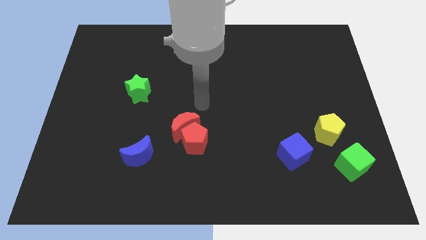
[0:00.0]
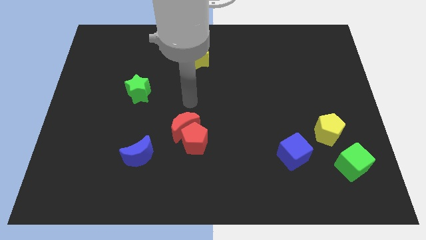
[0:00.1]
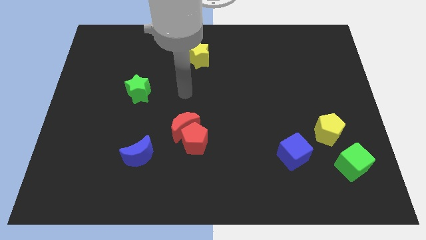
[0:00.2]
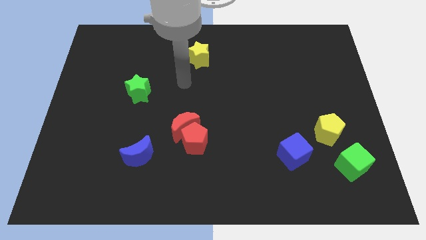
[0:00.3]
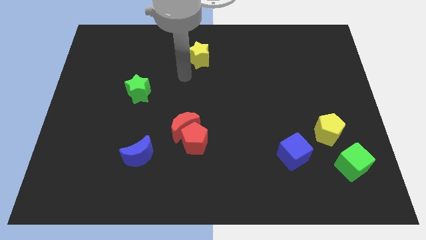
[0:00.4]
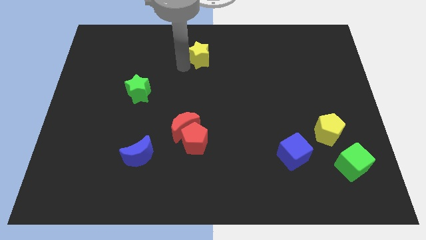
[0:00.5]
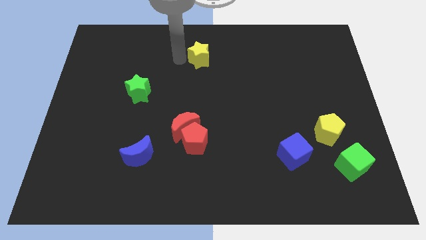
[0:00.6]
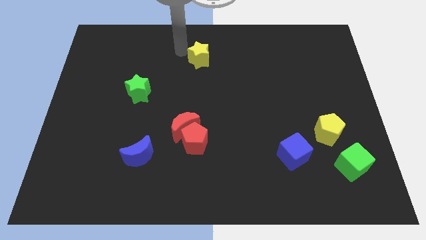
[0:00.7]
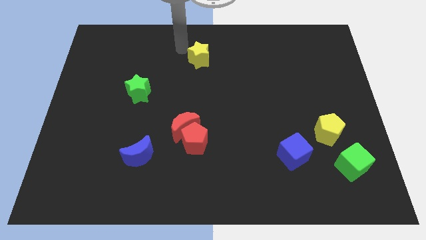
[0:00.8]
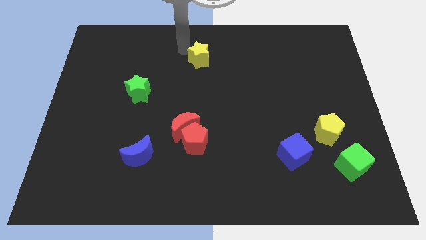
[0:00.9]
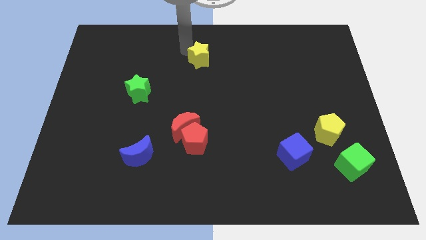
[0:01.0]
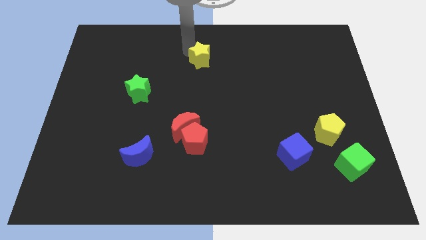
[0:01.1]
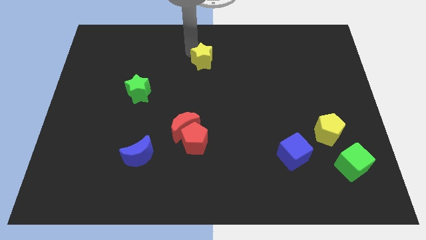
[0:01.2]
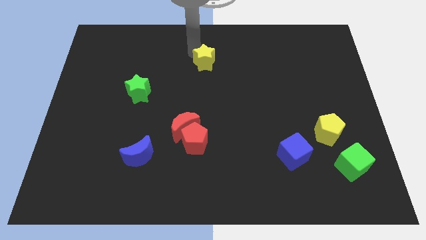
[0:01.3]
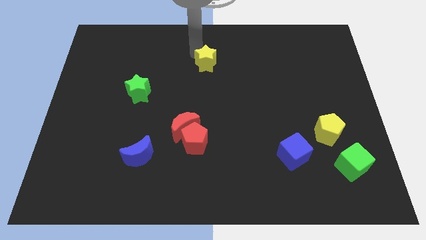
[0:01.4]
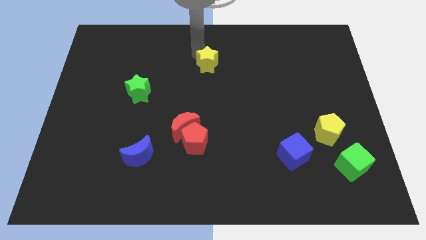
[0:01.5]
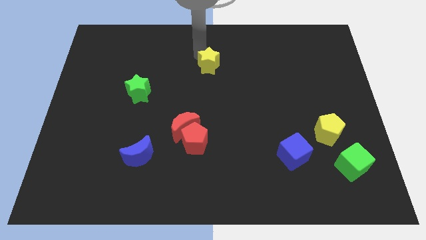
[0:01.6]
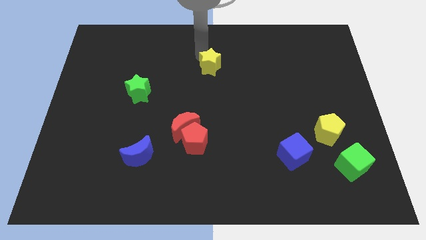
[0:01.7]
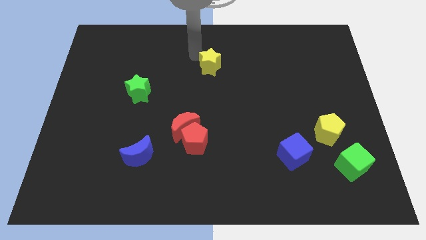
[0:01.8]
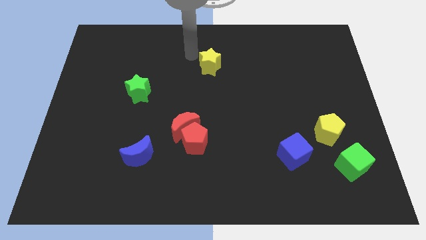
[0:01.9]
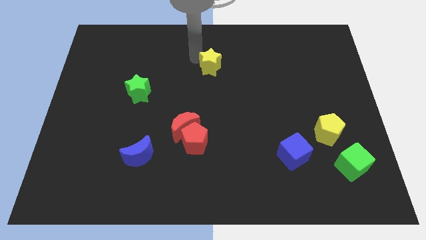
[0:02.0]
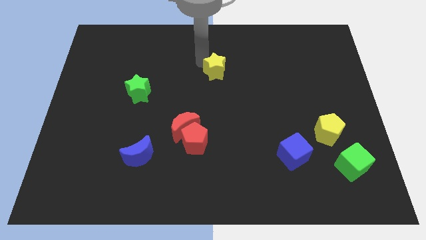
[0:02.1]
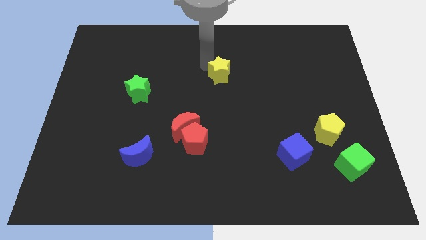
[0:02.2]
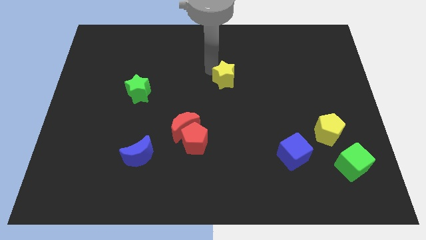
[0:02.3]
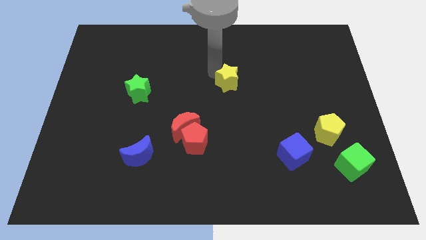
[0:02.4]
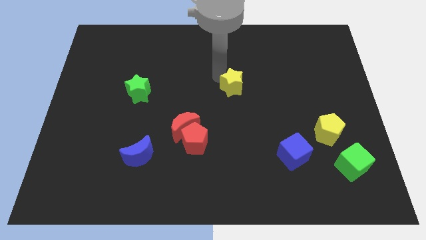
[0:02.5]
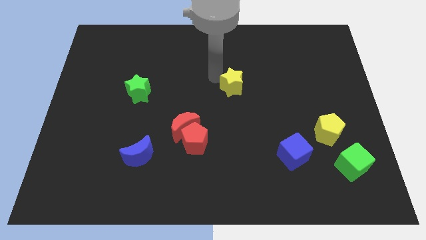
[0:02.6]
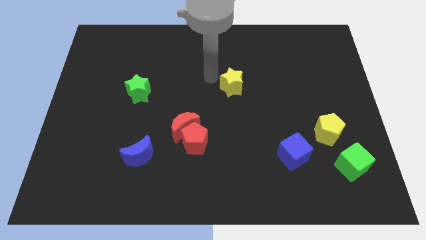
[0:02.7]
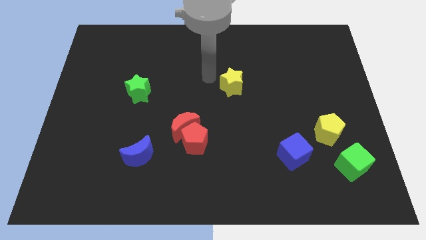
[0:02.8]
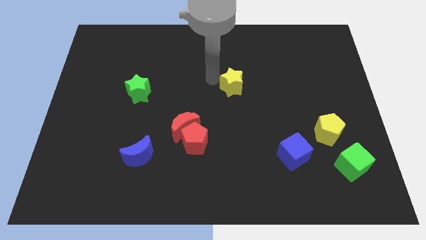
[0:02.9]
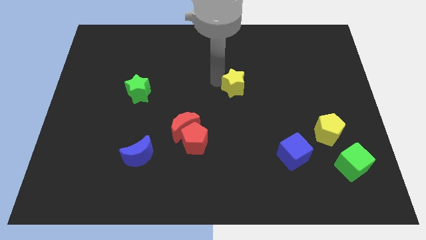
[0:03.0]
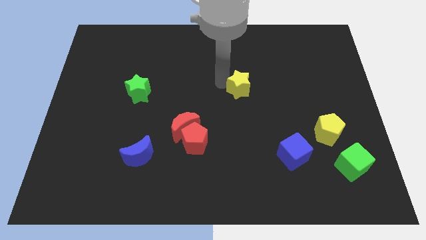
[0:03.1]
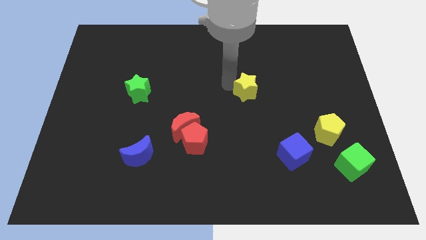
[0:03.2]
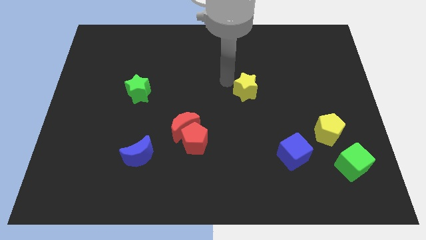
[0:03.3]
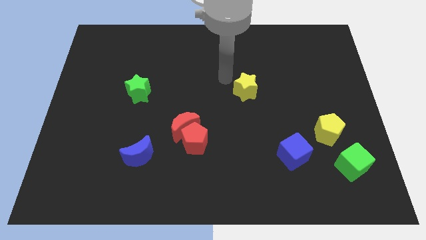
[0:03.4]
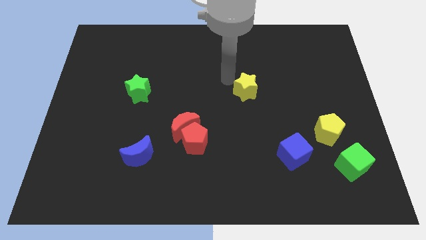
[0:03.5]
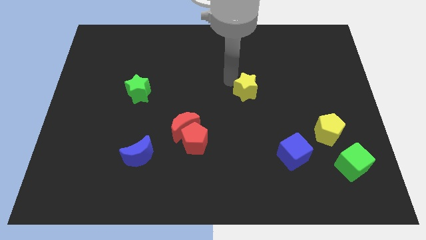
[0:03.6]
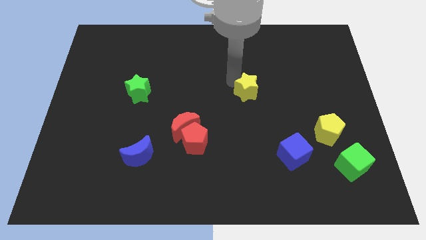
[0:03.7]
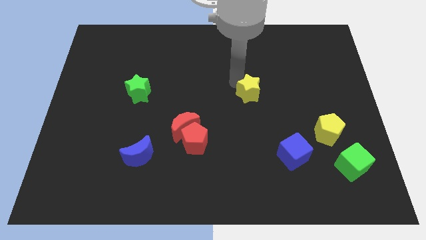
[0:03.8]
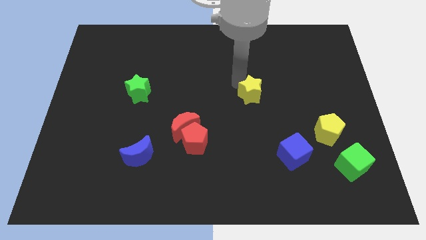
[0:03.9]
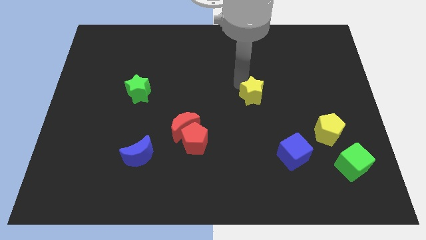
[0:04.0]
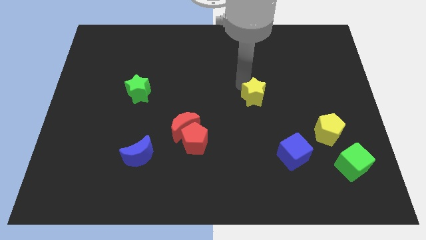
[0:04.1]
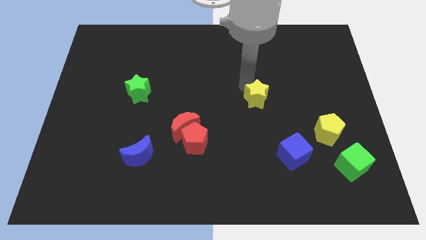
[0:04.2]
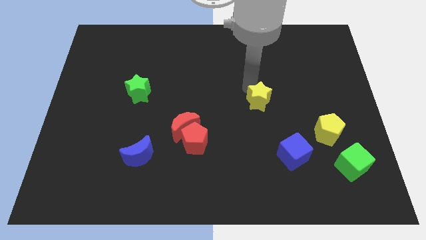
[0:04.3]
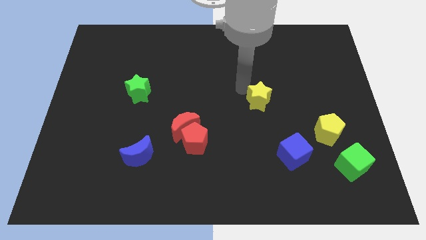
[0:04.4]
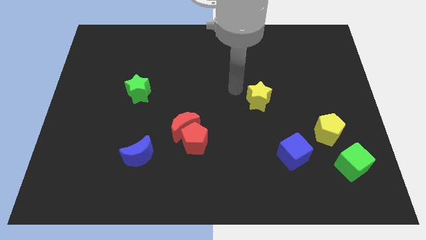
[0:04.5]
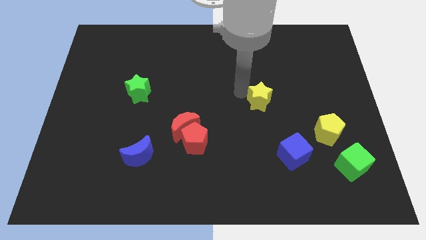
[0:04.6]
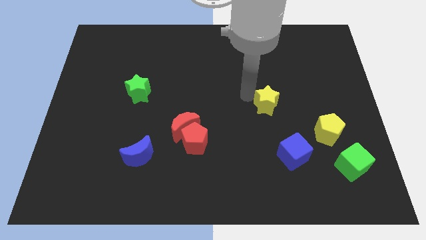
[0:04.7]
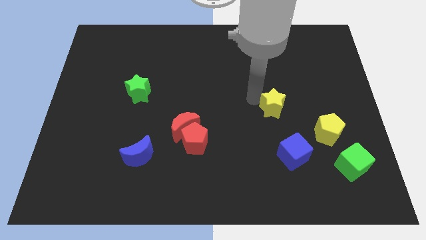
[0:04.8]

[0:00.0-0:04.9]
move the yellow star to the top side of the blue cube

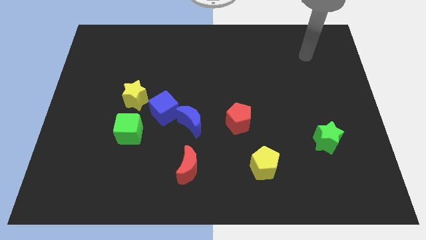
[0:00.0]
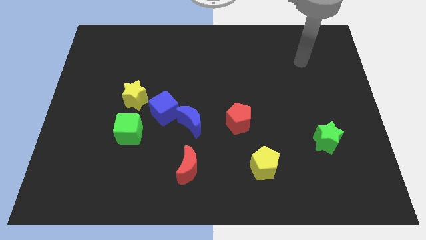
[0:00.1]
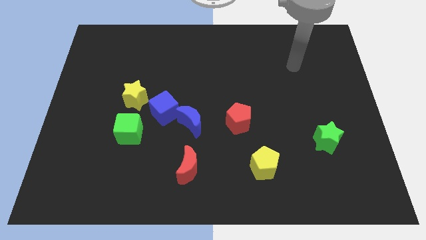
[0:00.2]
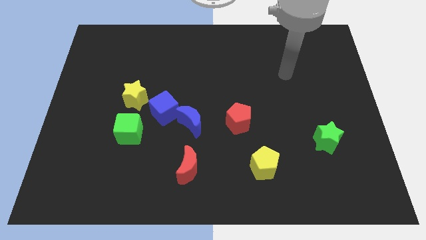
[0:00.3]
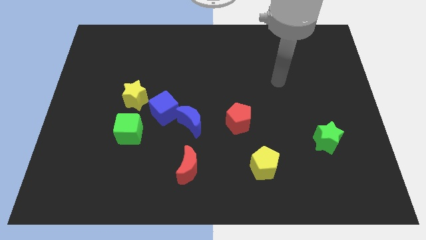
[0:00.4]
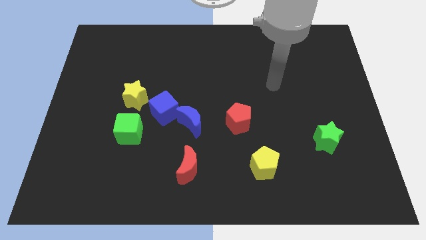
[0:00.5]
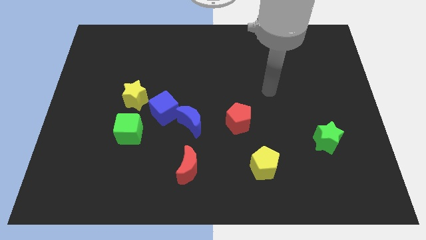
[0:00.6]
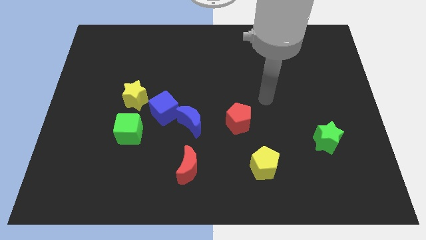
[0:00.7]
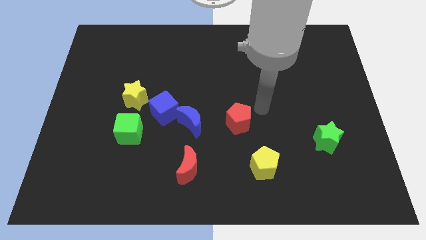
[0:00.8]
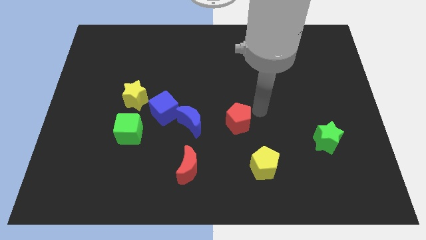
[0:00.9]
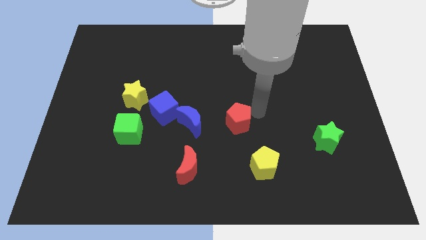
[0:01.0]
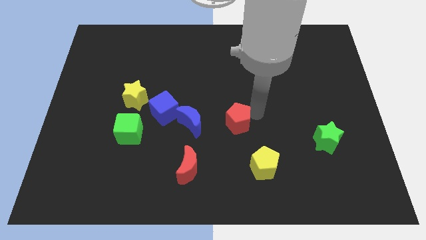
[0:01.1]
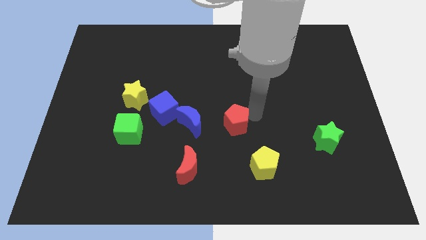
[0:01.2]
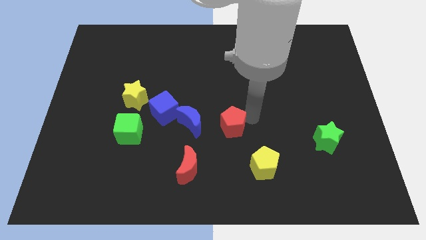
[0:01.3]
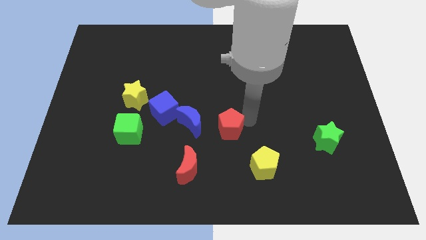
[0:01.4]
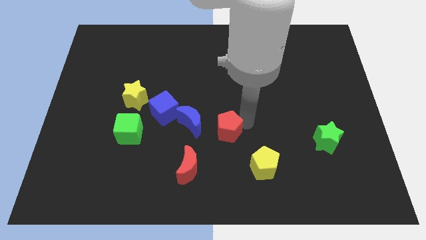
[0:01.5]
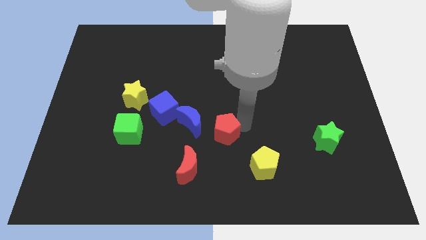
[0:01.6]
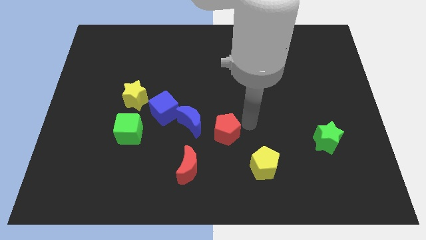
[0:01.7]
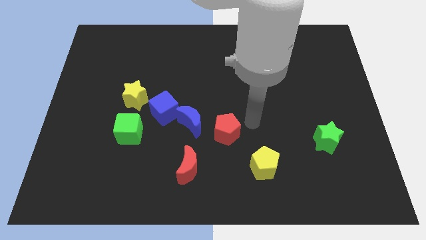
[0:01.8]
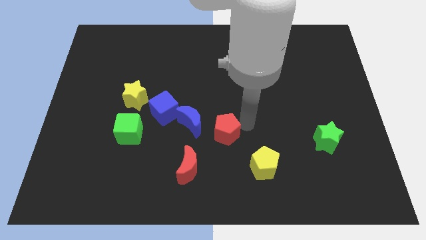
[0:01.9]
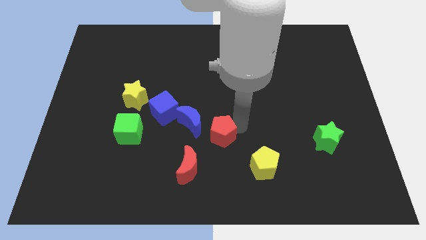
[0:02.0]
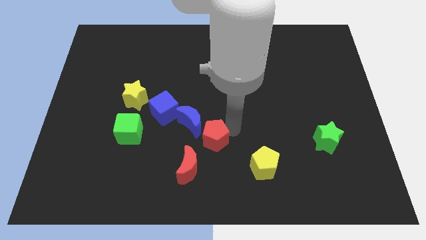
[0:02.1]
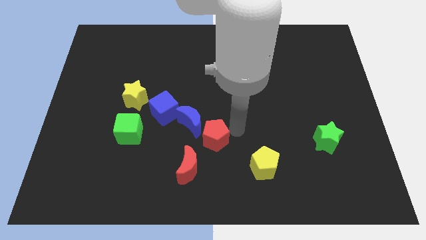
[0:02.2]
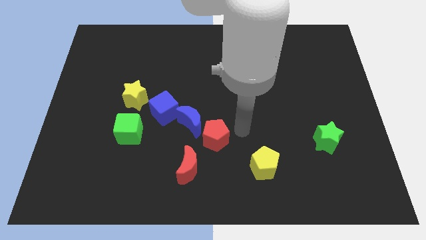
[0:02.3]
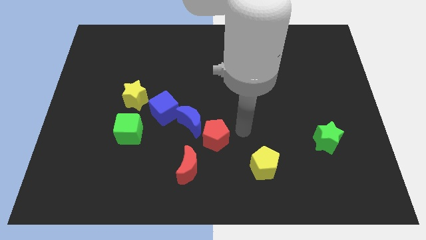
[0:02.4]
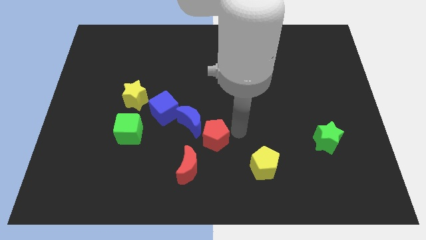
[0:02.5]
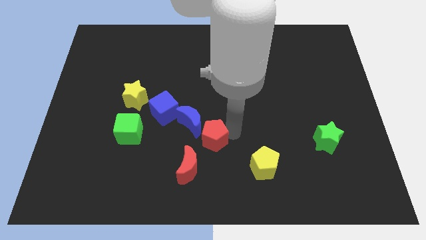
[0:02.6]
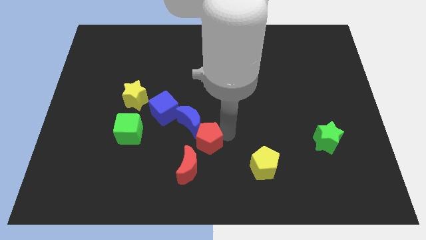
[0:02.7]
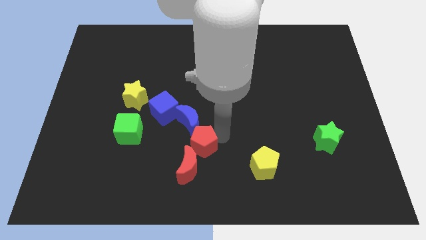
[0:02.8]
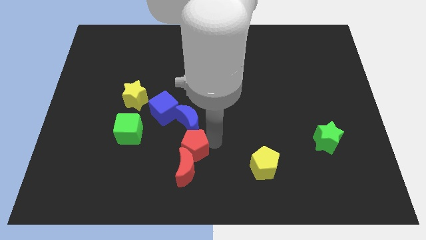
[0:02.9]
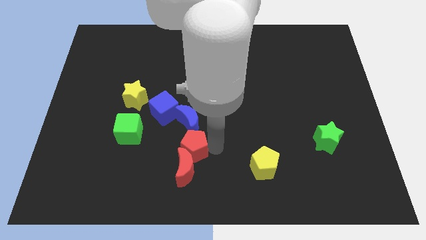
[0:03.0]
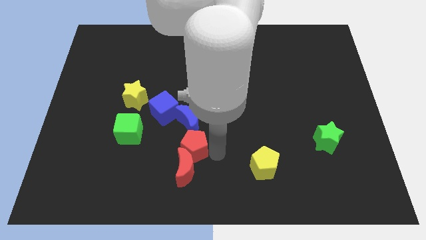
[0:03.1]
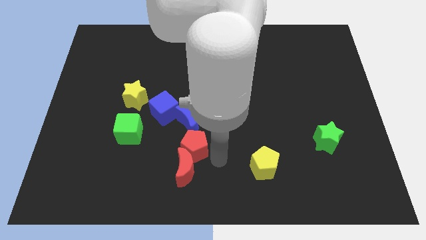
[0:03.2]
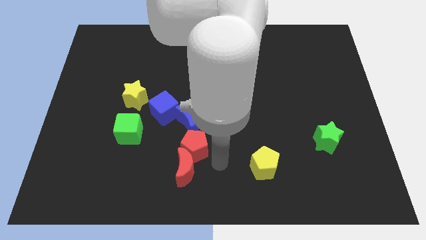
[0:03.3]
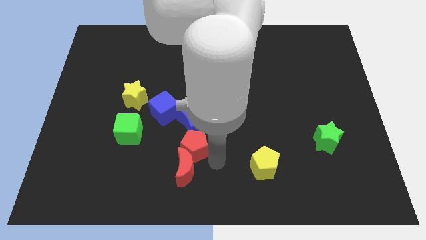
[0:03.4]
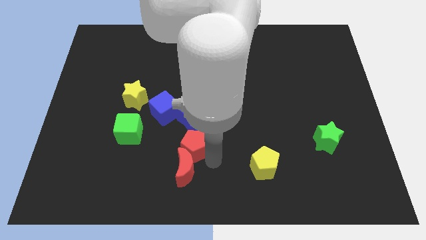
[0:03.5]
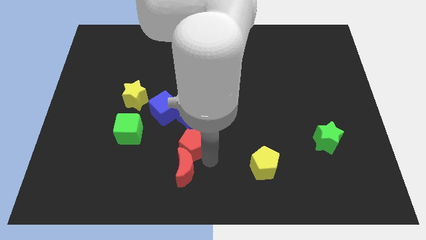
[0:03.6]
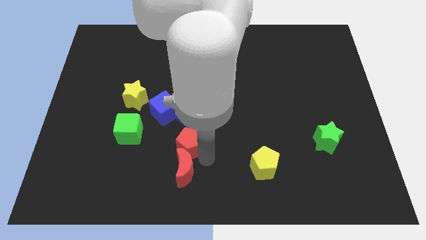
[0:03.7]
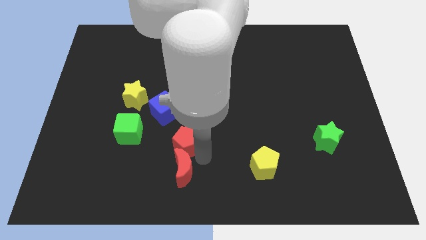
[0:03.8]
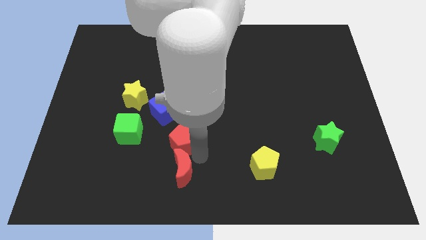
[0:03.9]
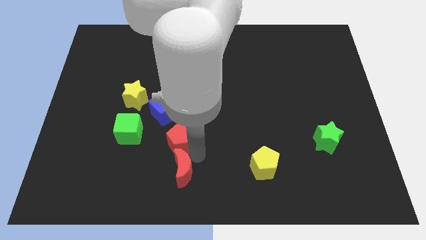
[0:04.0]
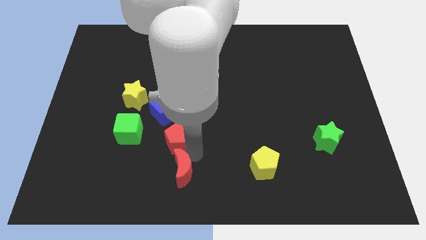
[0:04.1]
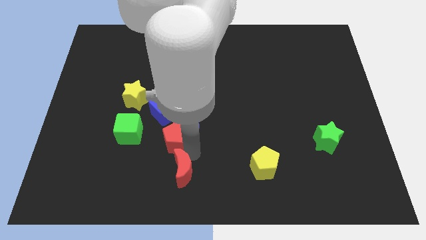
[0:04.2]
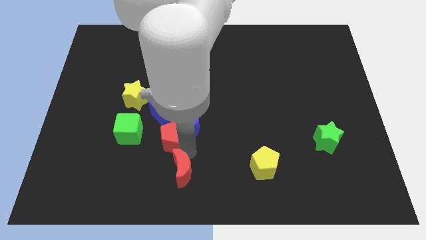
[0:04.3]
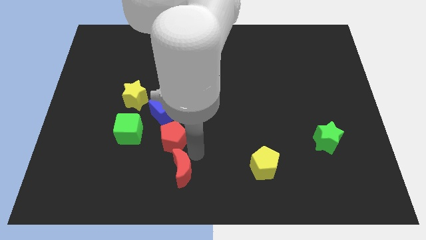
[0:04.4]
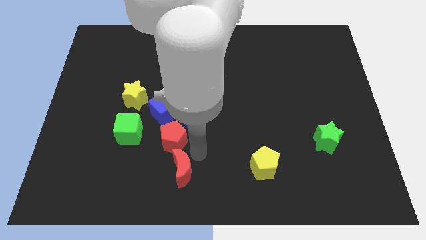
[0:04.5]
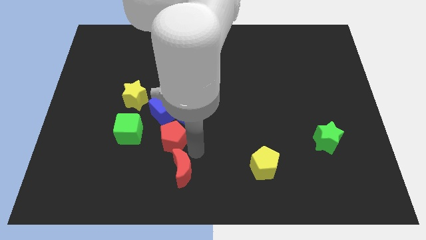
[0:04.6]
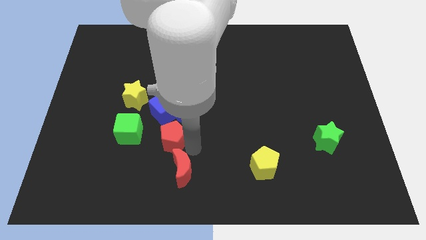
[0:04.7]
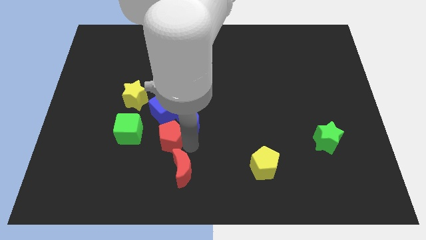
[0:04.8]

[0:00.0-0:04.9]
slide the red pentagon to the left side of the blue moon
